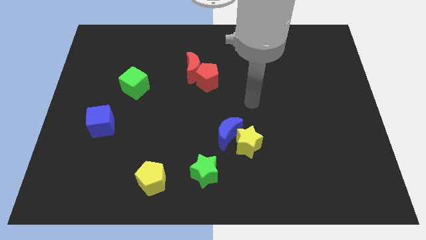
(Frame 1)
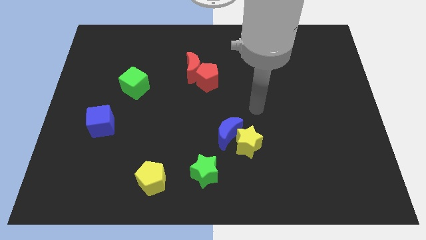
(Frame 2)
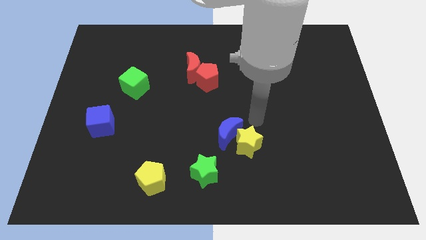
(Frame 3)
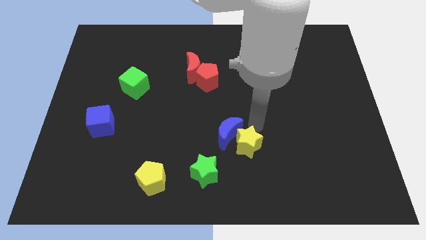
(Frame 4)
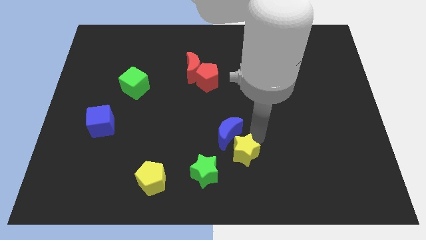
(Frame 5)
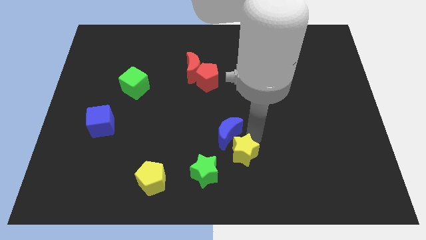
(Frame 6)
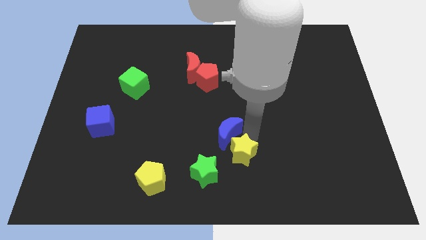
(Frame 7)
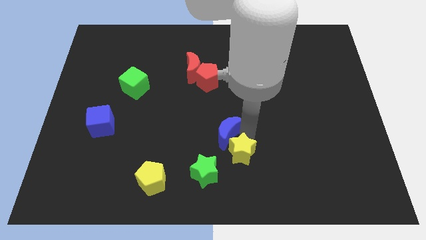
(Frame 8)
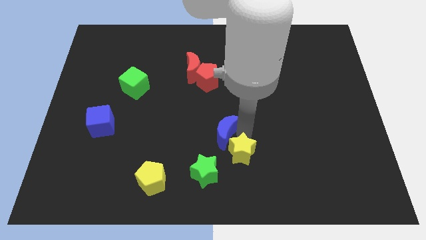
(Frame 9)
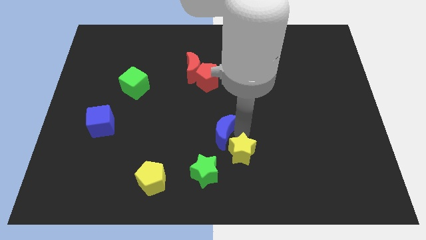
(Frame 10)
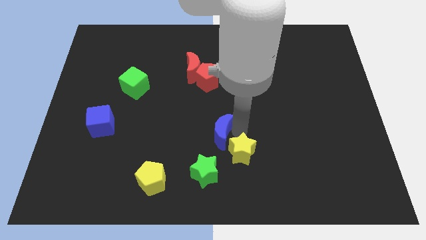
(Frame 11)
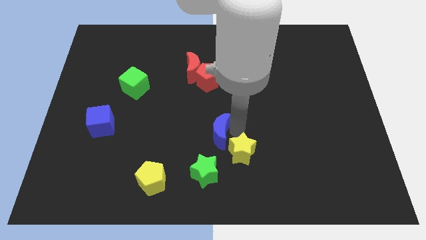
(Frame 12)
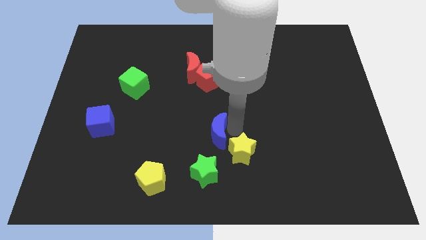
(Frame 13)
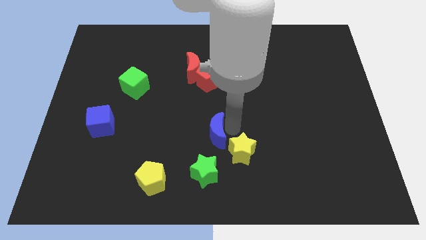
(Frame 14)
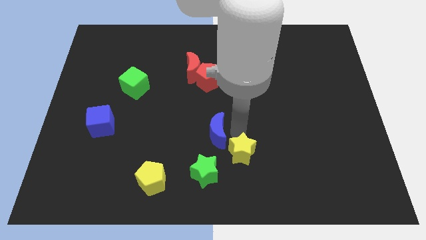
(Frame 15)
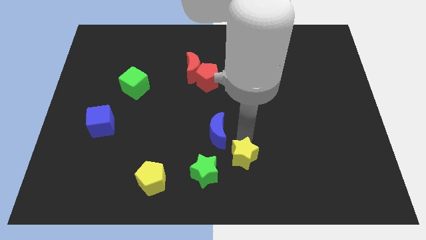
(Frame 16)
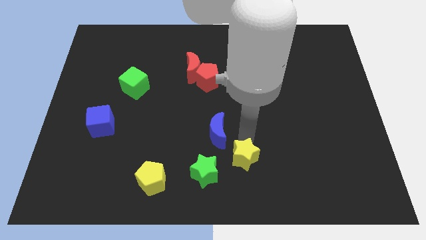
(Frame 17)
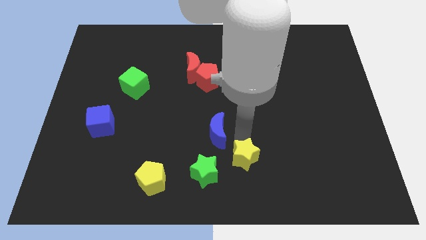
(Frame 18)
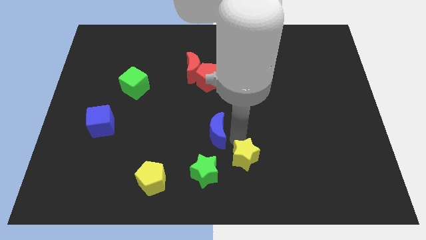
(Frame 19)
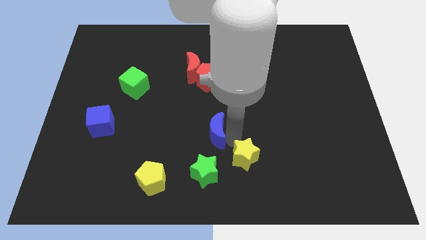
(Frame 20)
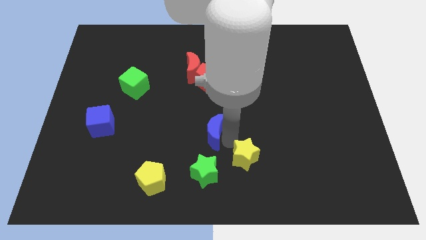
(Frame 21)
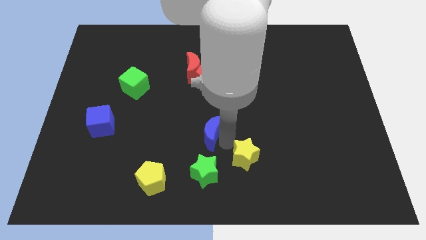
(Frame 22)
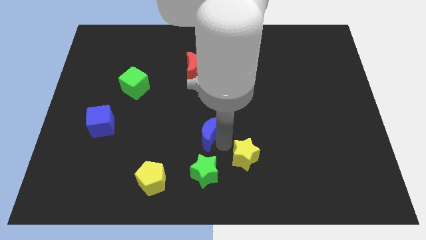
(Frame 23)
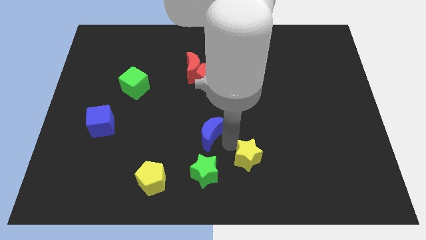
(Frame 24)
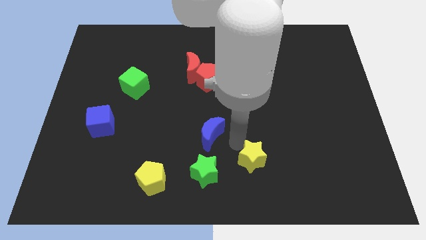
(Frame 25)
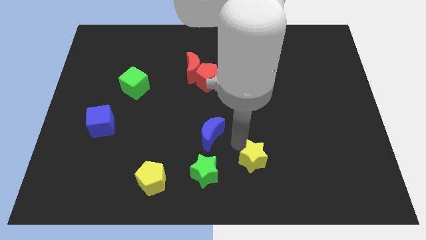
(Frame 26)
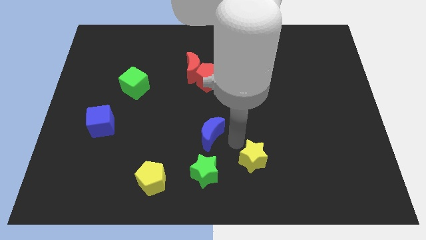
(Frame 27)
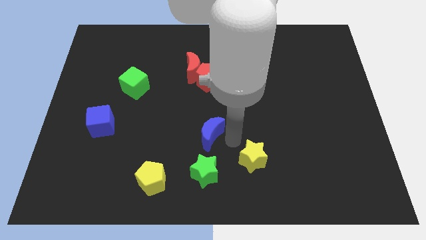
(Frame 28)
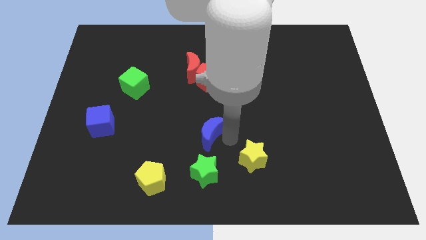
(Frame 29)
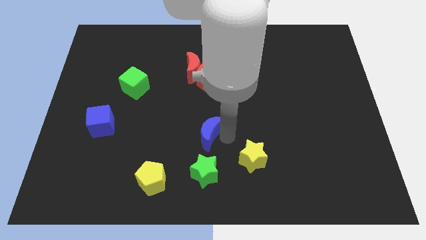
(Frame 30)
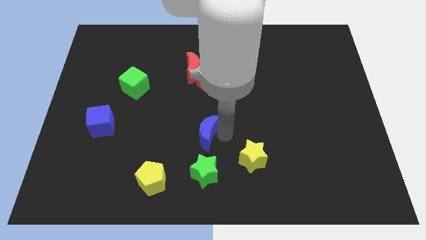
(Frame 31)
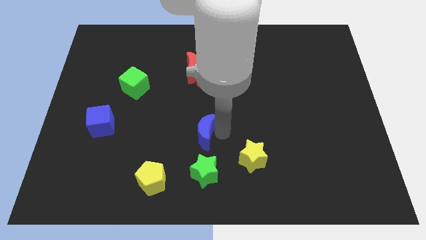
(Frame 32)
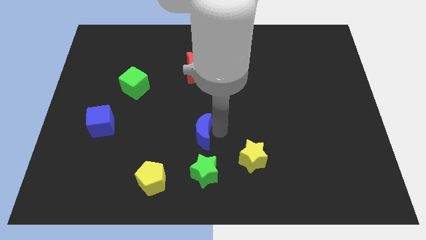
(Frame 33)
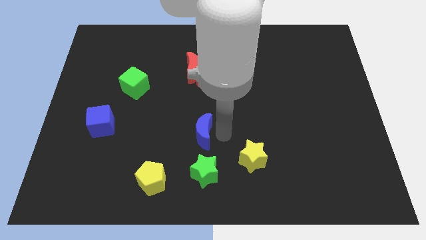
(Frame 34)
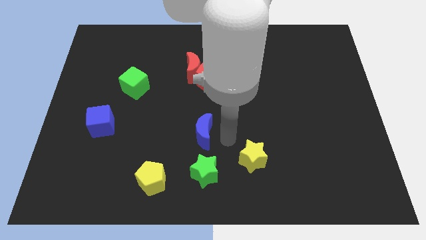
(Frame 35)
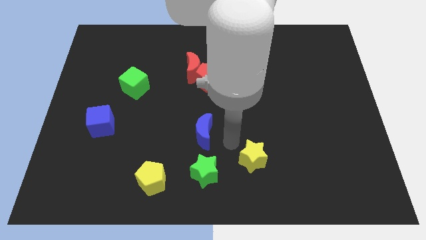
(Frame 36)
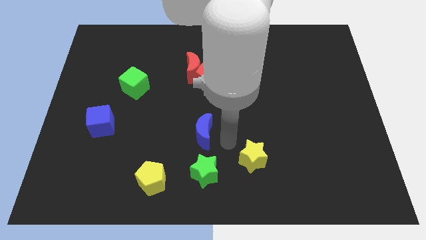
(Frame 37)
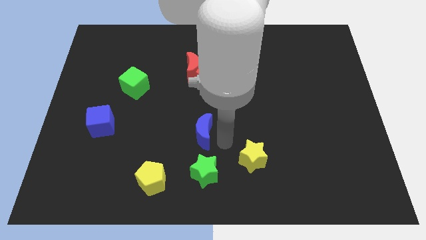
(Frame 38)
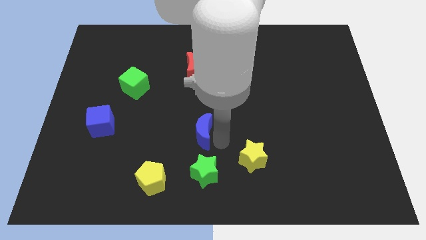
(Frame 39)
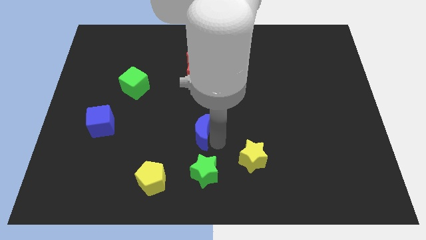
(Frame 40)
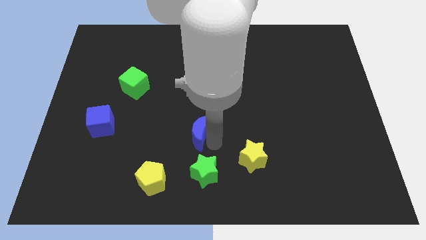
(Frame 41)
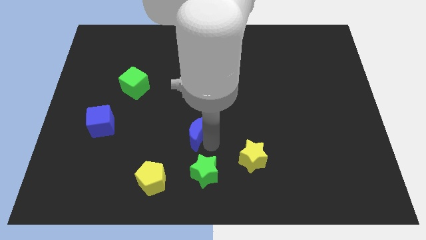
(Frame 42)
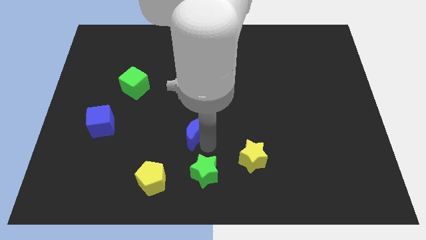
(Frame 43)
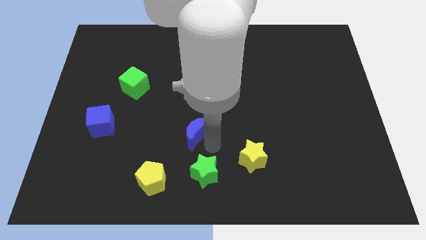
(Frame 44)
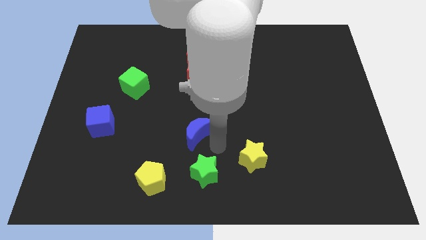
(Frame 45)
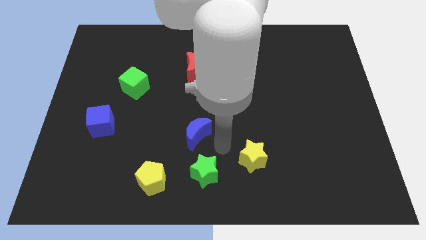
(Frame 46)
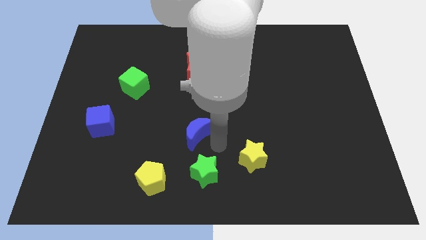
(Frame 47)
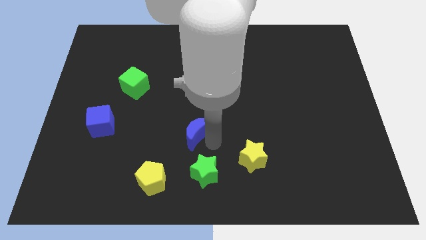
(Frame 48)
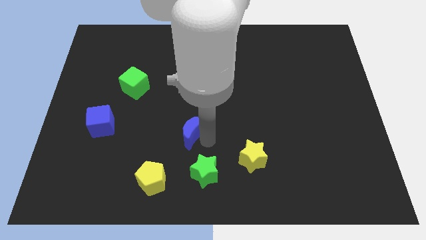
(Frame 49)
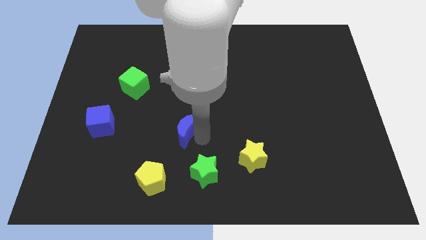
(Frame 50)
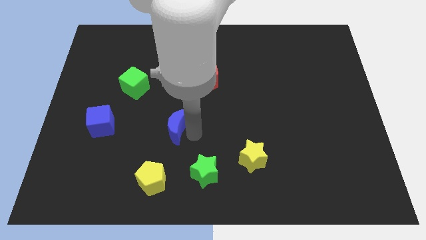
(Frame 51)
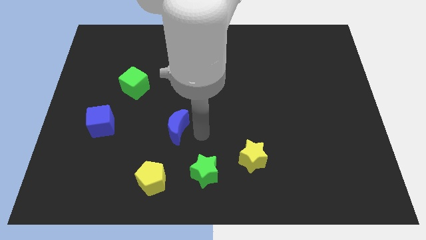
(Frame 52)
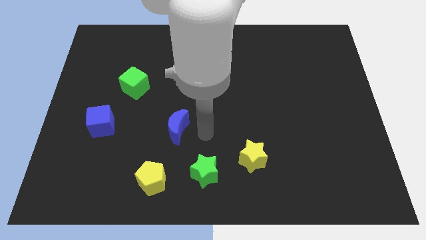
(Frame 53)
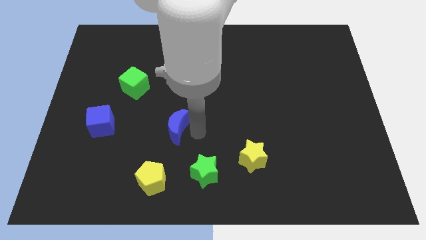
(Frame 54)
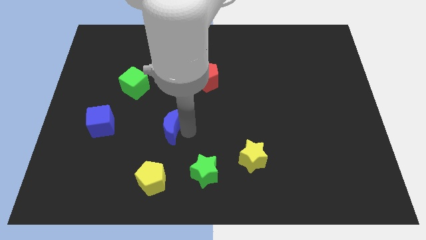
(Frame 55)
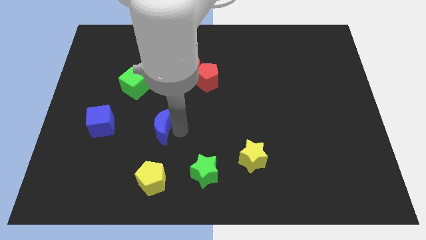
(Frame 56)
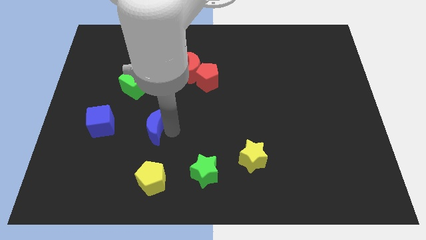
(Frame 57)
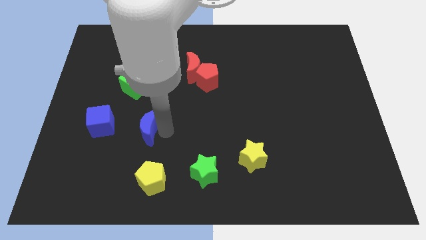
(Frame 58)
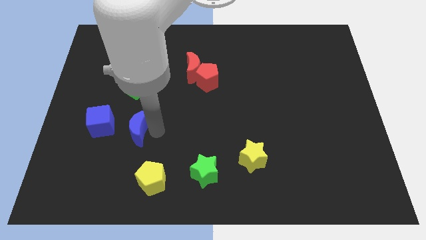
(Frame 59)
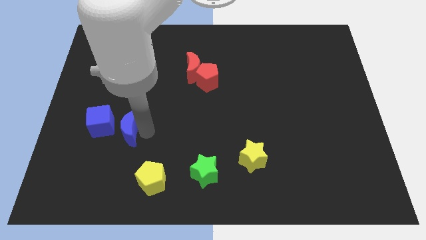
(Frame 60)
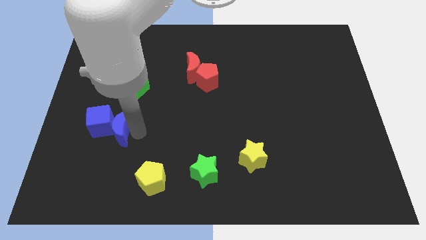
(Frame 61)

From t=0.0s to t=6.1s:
put the blue moon towards the blue cube

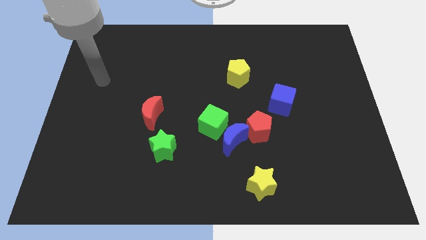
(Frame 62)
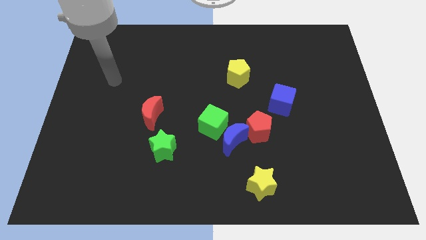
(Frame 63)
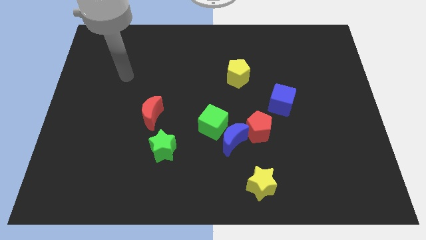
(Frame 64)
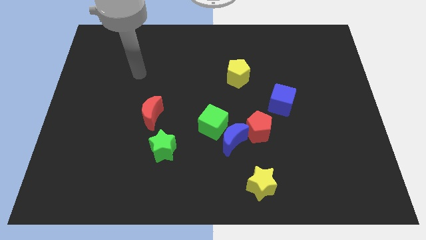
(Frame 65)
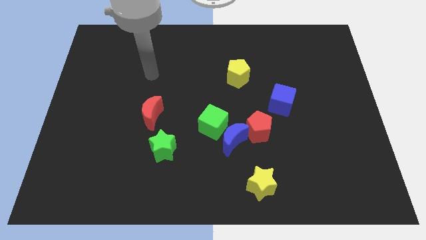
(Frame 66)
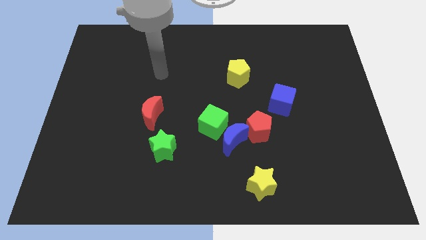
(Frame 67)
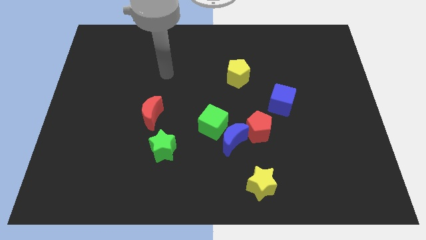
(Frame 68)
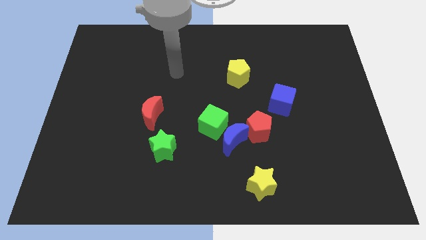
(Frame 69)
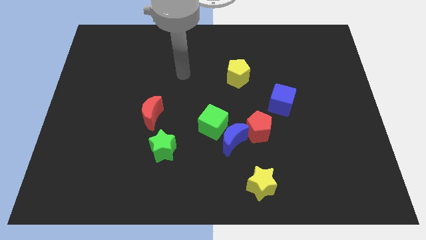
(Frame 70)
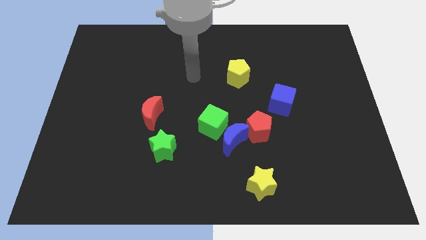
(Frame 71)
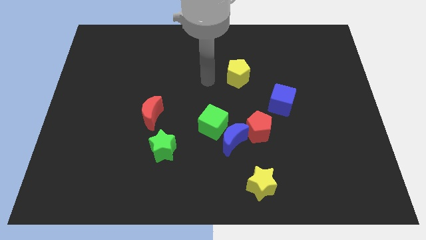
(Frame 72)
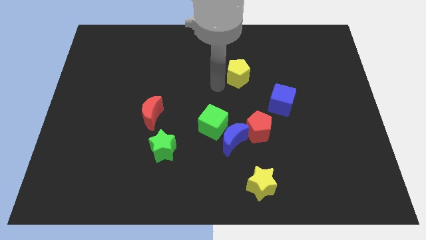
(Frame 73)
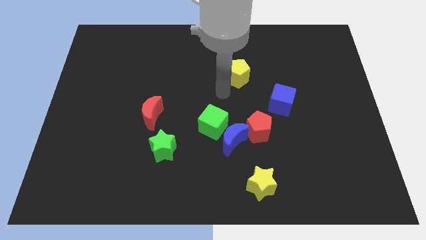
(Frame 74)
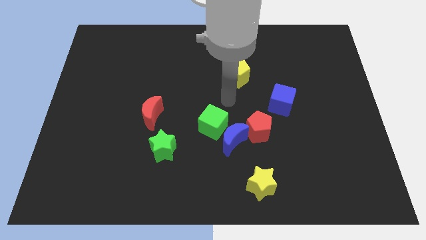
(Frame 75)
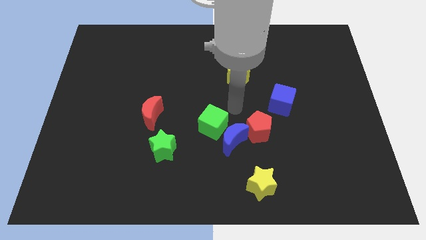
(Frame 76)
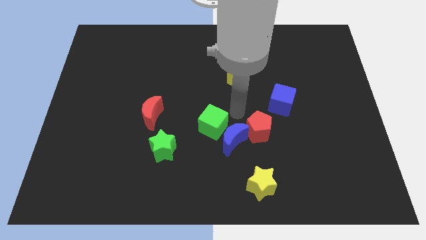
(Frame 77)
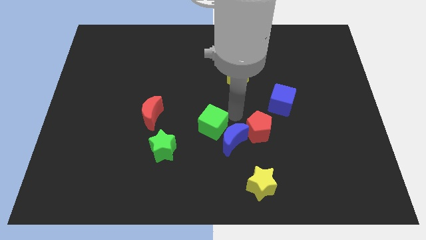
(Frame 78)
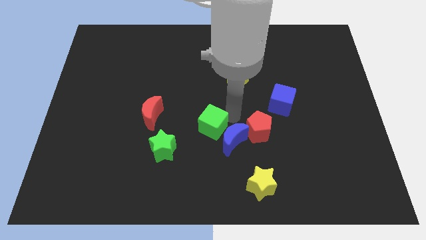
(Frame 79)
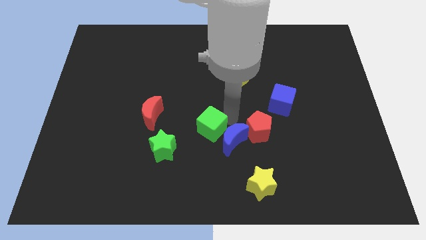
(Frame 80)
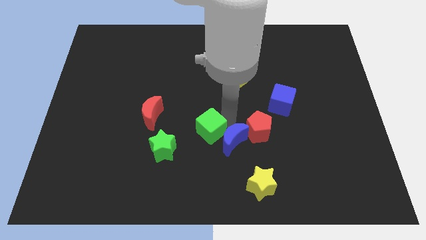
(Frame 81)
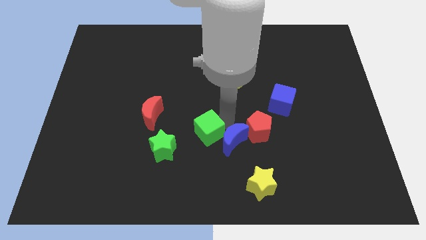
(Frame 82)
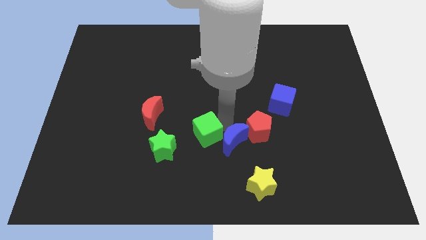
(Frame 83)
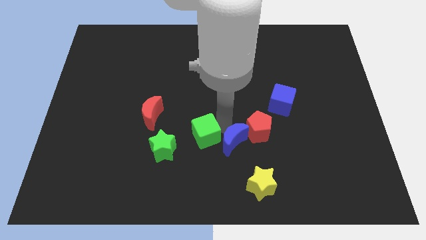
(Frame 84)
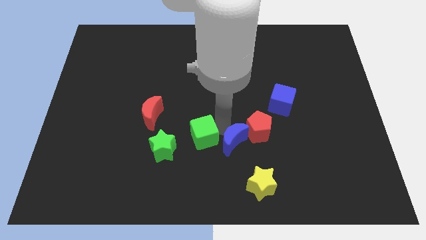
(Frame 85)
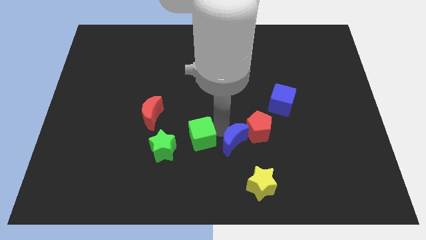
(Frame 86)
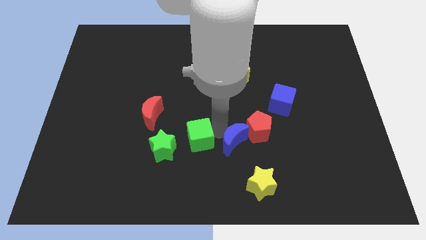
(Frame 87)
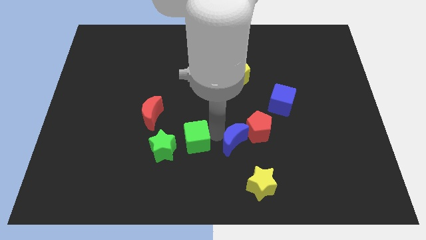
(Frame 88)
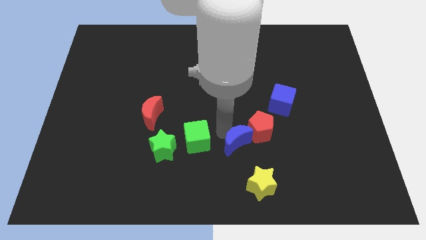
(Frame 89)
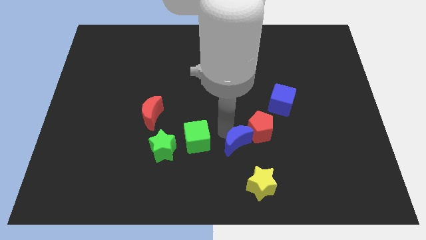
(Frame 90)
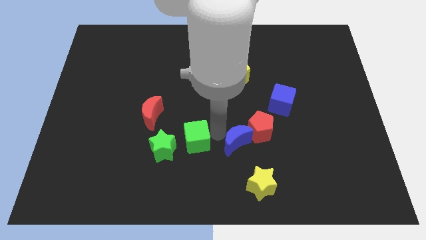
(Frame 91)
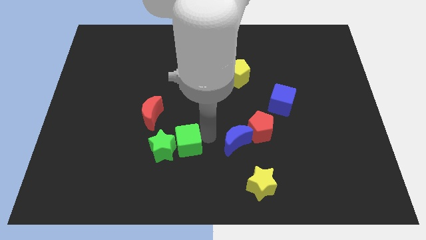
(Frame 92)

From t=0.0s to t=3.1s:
slide the green cube close to the green star
